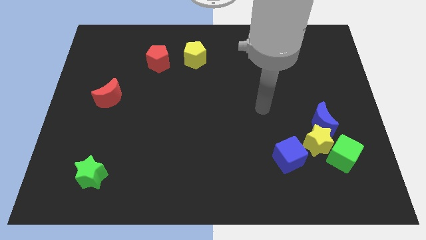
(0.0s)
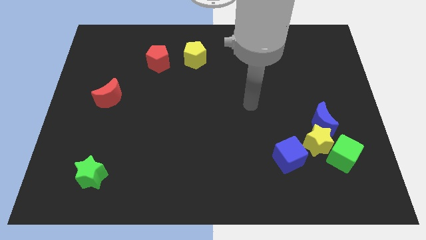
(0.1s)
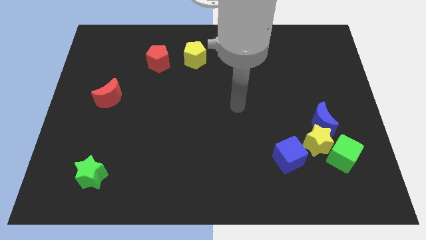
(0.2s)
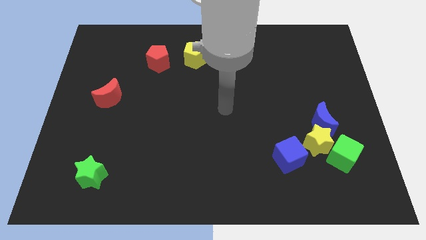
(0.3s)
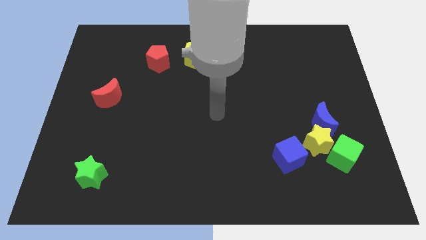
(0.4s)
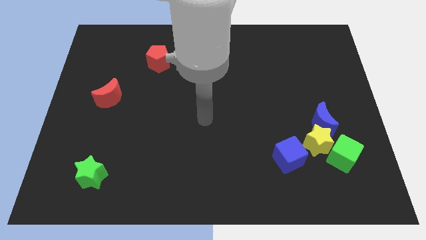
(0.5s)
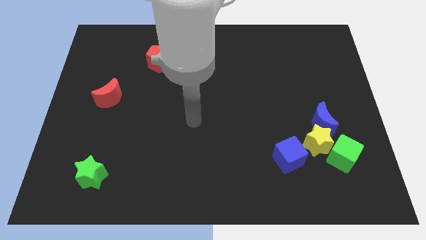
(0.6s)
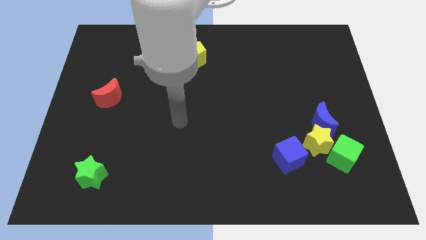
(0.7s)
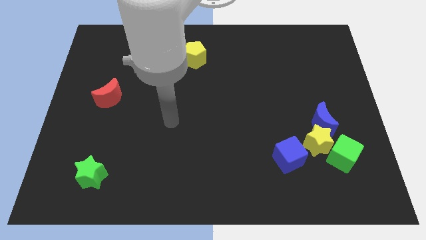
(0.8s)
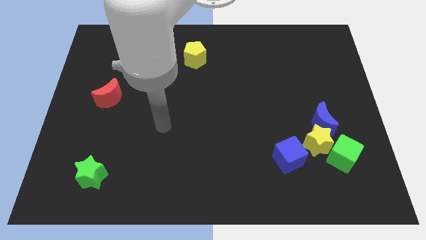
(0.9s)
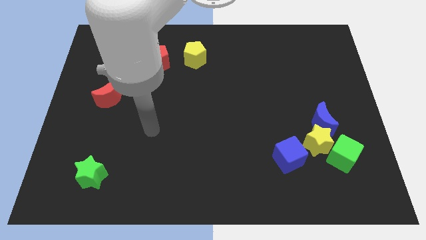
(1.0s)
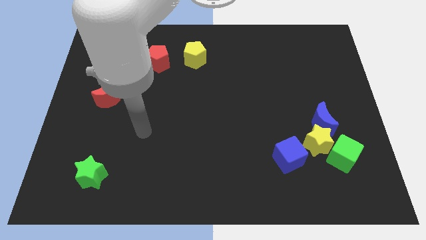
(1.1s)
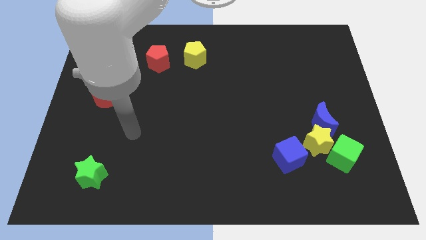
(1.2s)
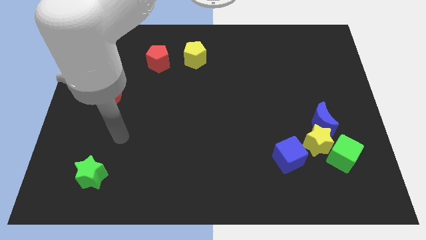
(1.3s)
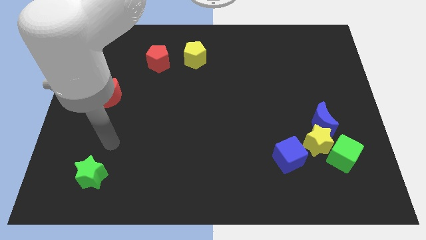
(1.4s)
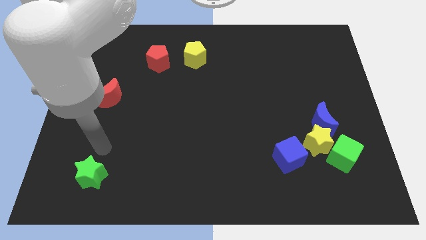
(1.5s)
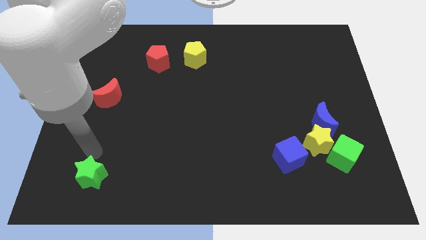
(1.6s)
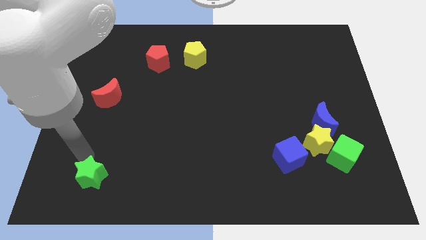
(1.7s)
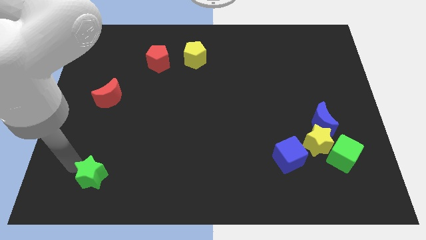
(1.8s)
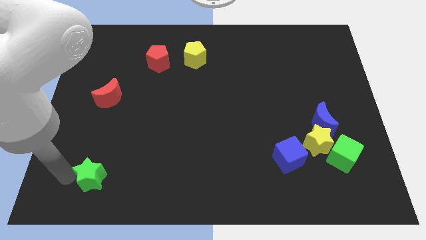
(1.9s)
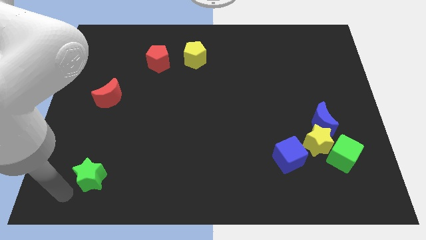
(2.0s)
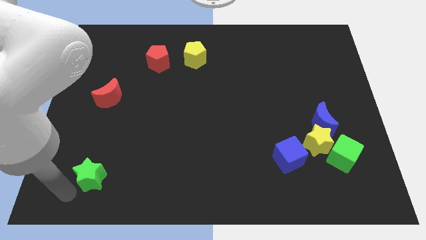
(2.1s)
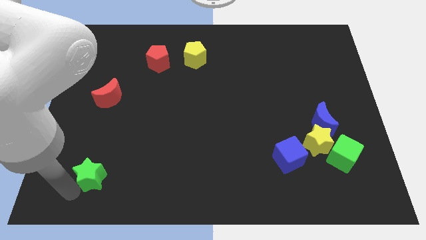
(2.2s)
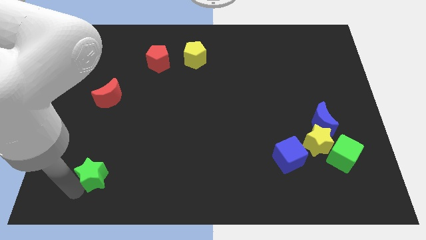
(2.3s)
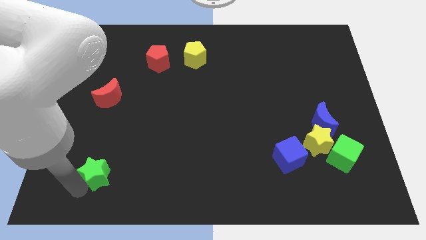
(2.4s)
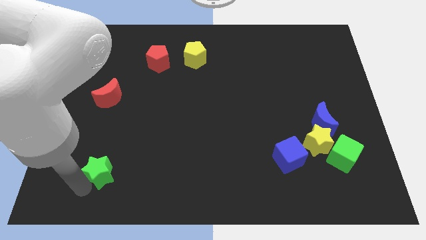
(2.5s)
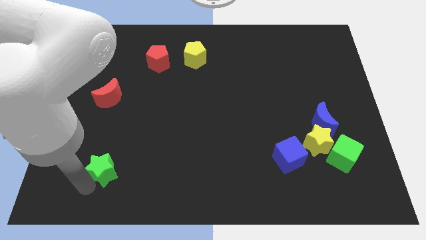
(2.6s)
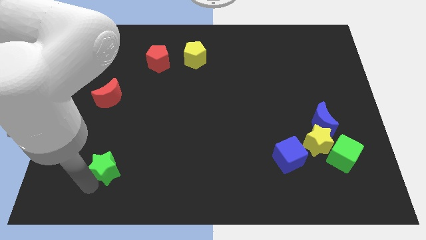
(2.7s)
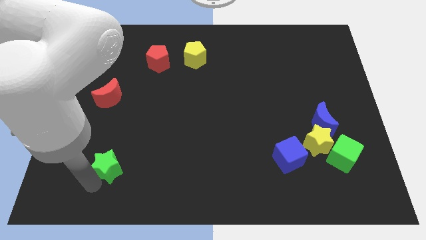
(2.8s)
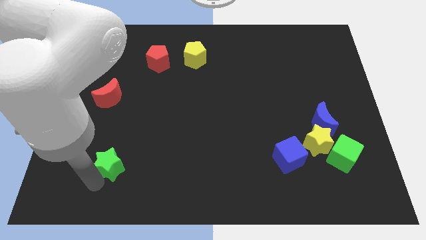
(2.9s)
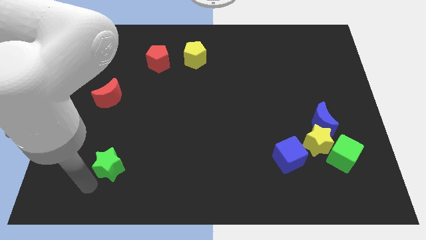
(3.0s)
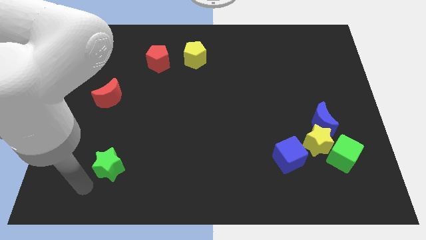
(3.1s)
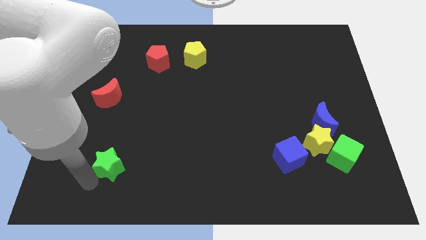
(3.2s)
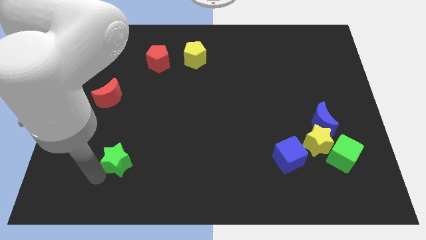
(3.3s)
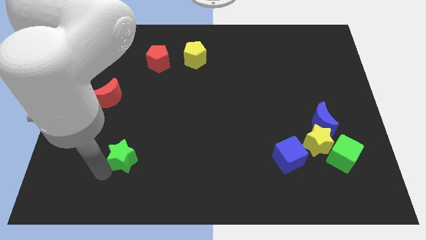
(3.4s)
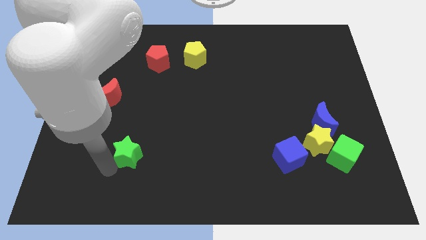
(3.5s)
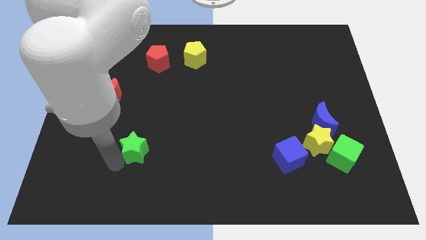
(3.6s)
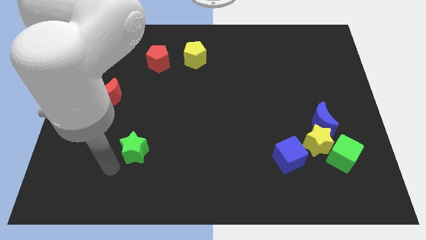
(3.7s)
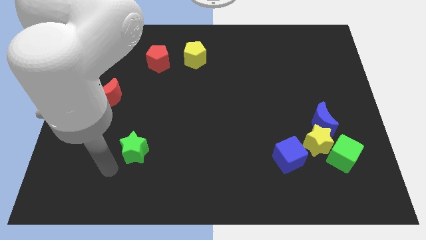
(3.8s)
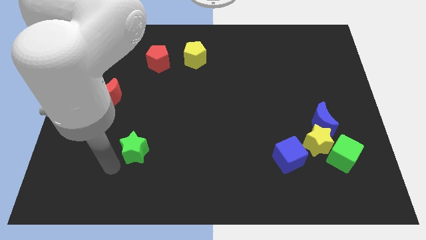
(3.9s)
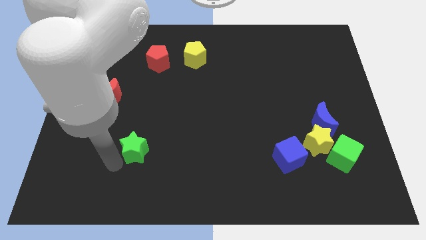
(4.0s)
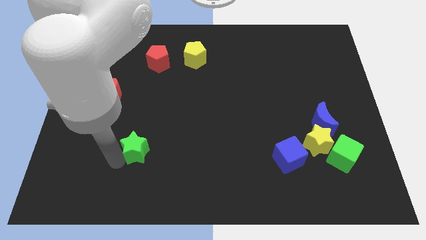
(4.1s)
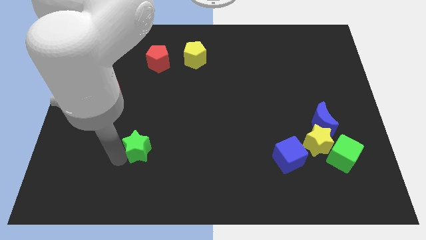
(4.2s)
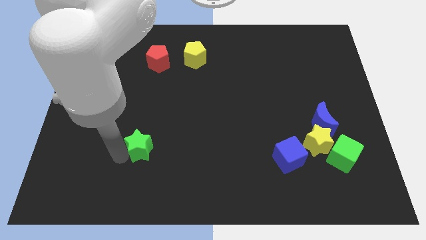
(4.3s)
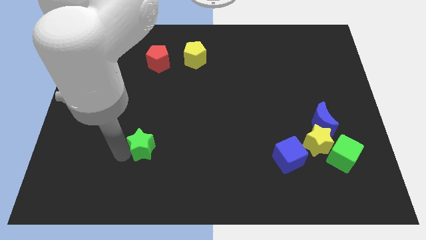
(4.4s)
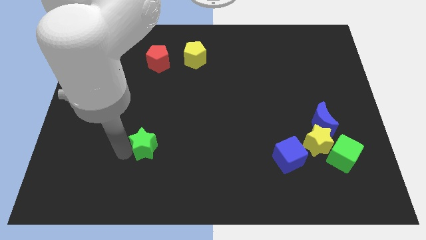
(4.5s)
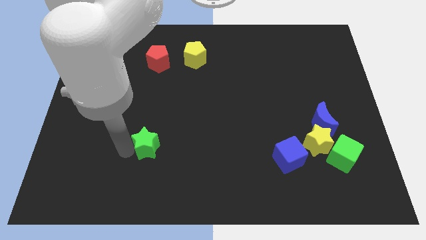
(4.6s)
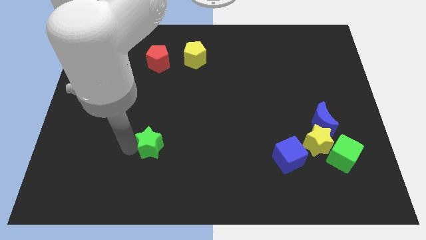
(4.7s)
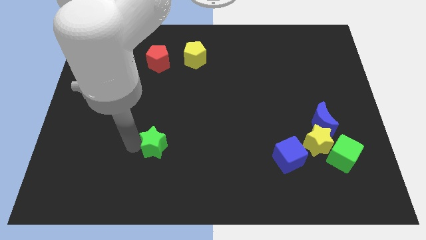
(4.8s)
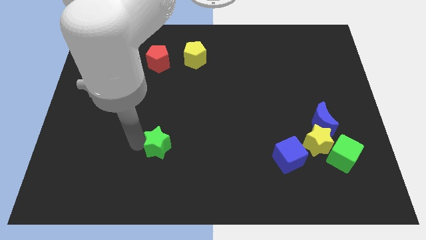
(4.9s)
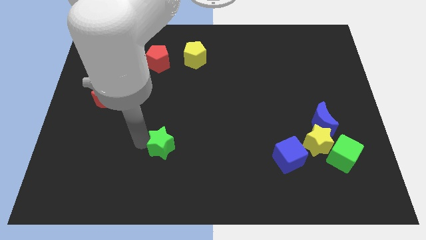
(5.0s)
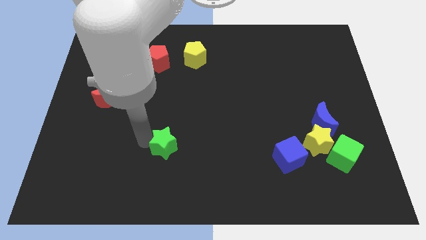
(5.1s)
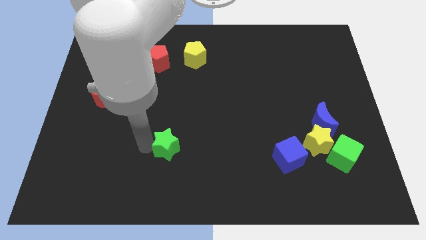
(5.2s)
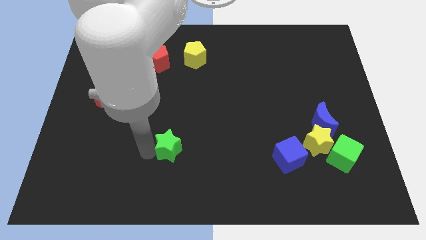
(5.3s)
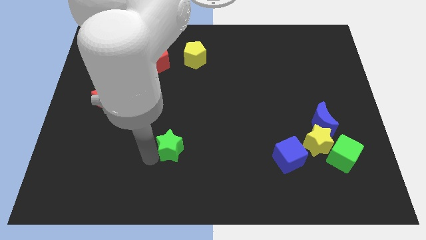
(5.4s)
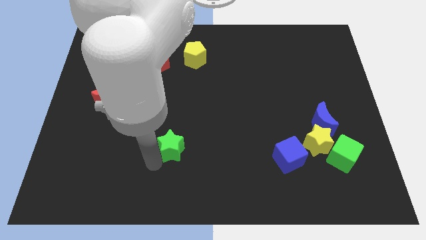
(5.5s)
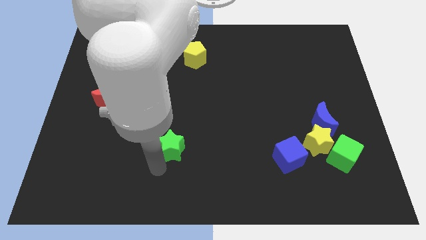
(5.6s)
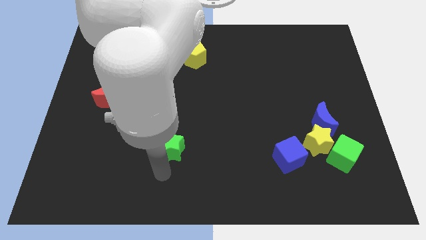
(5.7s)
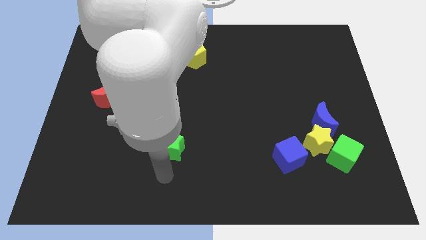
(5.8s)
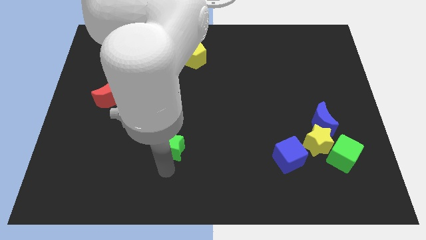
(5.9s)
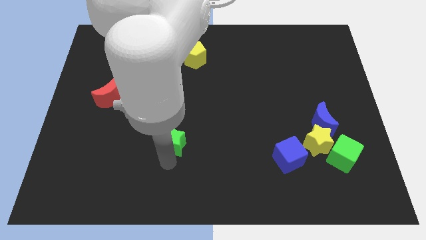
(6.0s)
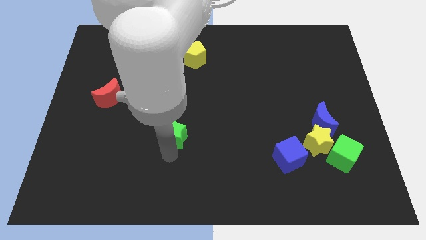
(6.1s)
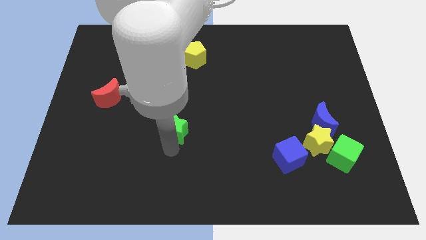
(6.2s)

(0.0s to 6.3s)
push the green star to the middle

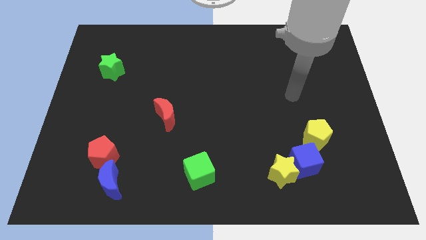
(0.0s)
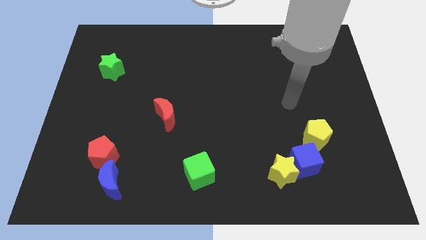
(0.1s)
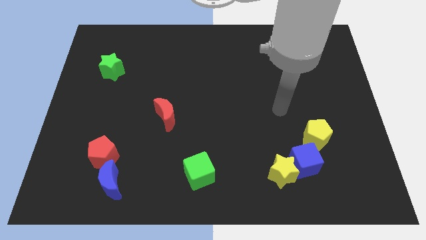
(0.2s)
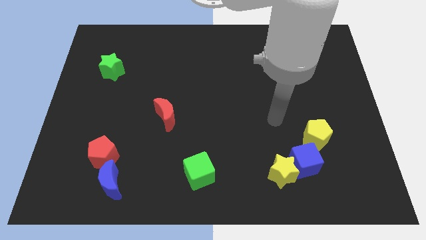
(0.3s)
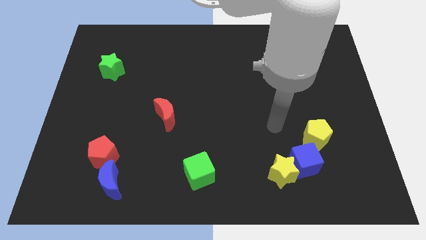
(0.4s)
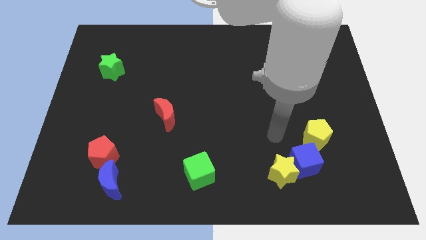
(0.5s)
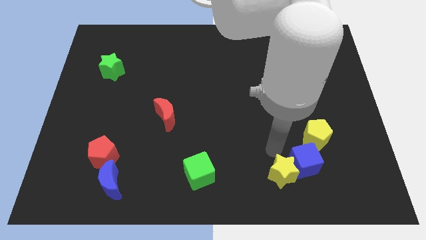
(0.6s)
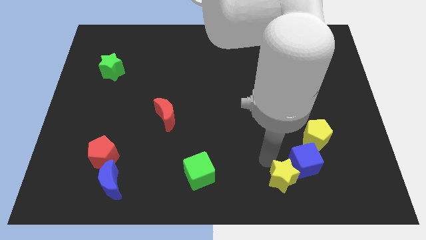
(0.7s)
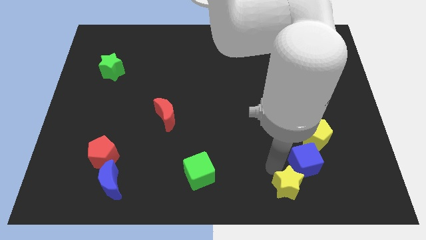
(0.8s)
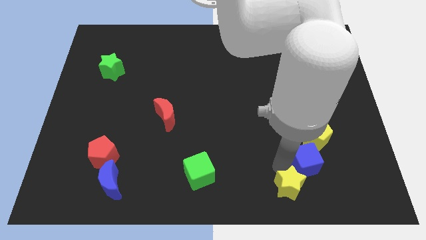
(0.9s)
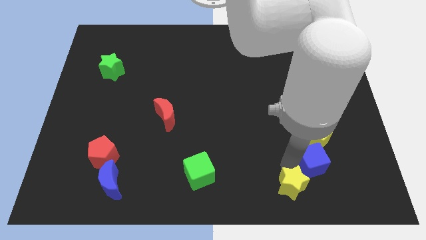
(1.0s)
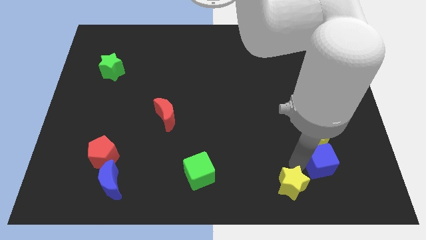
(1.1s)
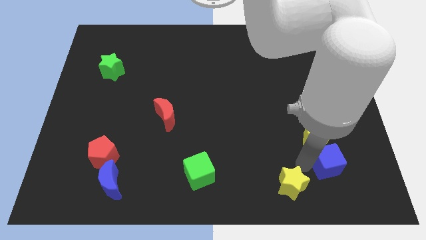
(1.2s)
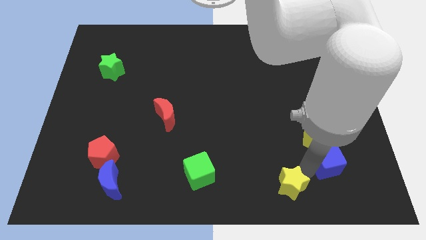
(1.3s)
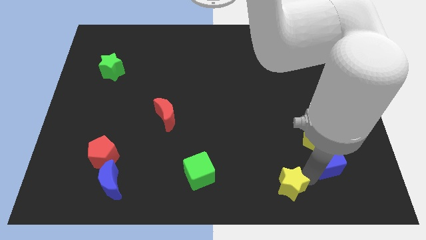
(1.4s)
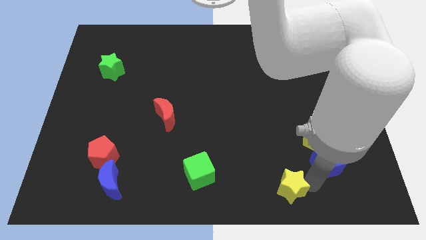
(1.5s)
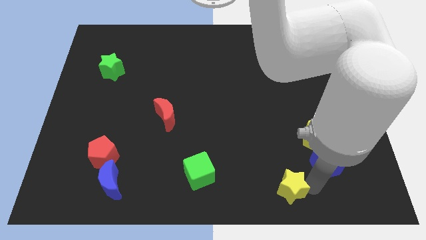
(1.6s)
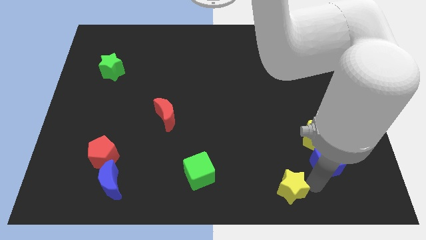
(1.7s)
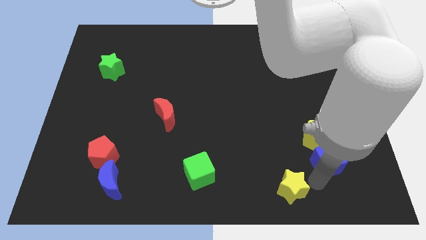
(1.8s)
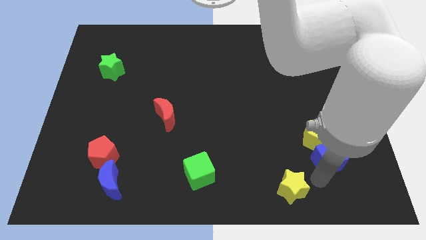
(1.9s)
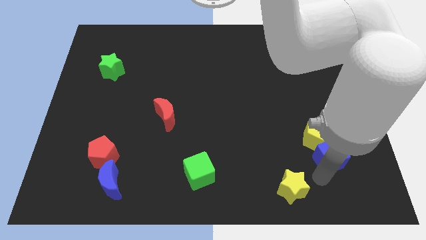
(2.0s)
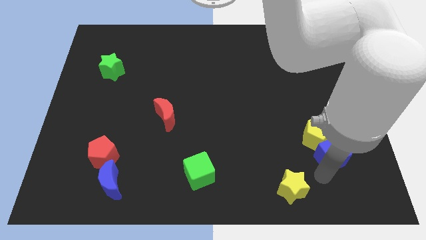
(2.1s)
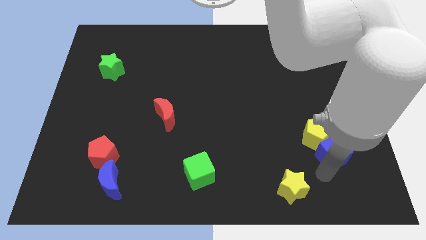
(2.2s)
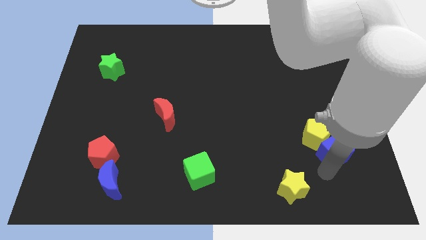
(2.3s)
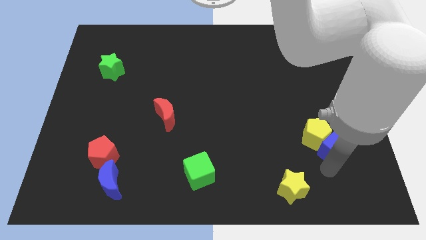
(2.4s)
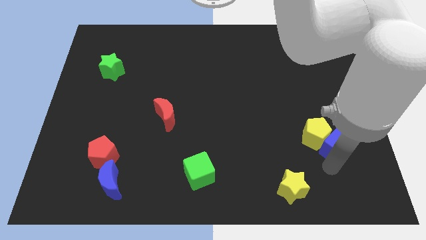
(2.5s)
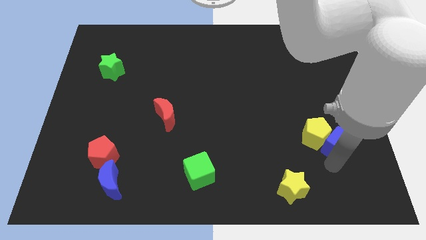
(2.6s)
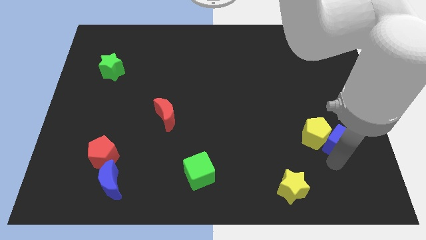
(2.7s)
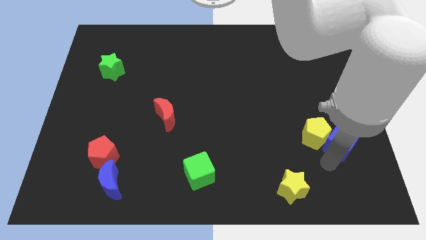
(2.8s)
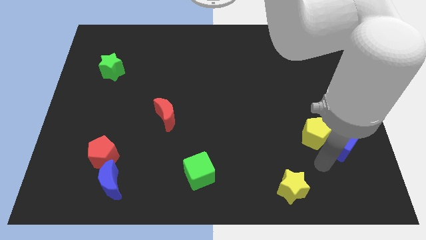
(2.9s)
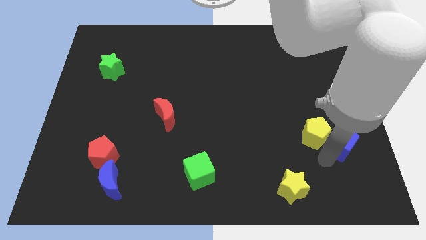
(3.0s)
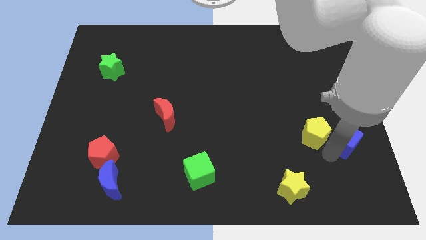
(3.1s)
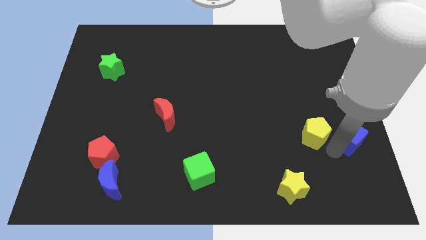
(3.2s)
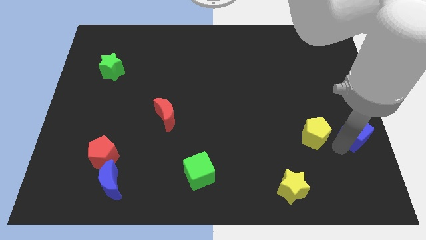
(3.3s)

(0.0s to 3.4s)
push the blue cube to the center right
